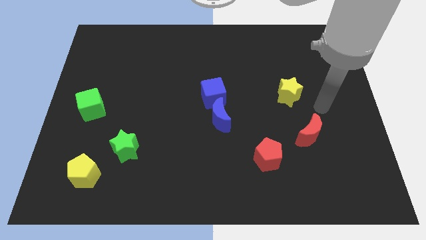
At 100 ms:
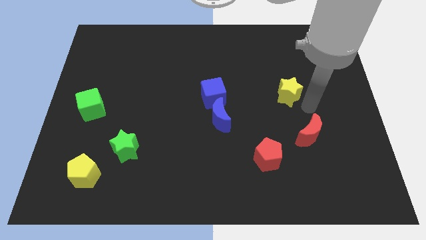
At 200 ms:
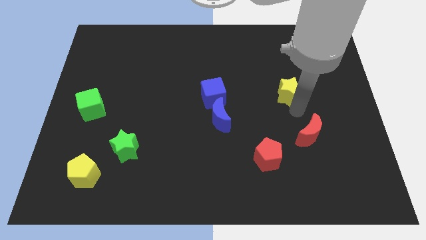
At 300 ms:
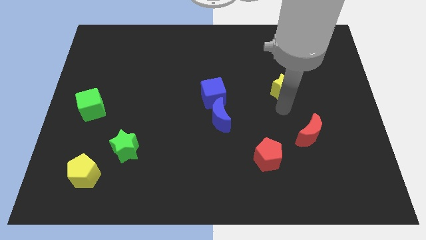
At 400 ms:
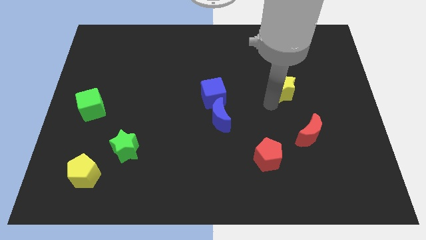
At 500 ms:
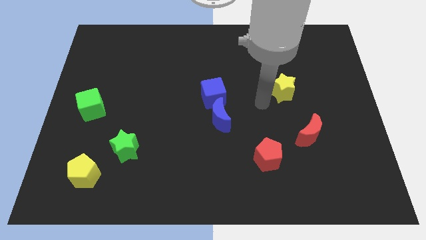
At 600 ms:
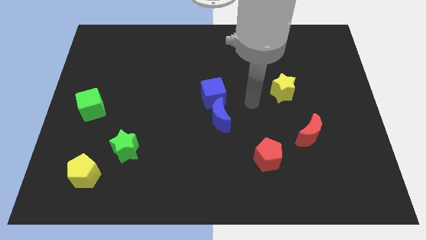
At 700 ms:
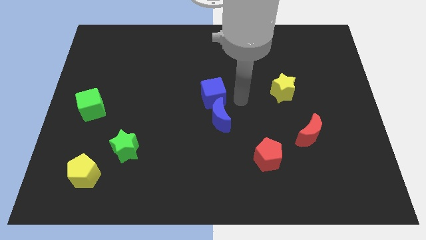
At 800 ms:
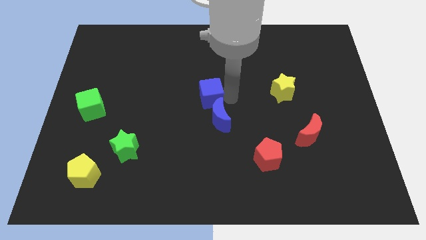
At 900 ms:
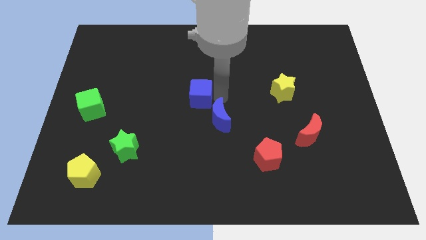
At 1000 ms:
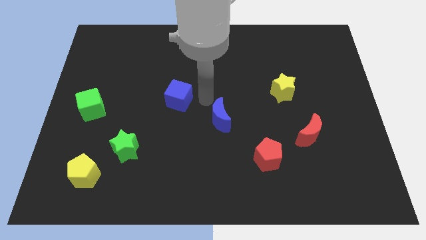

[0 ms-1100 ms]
pull the blue moon apart from the blue cube

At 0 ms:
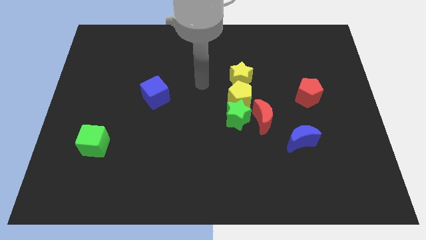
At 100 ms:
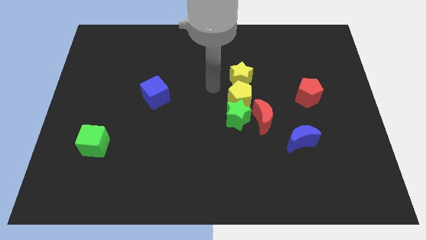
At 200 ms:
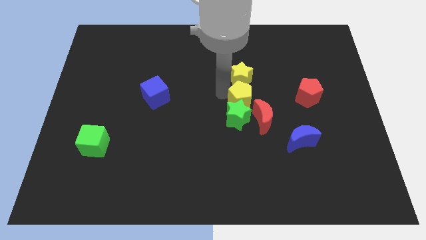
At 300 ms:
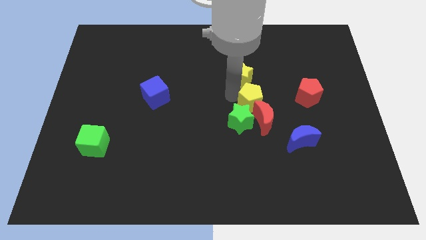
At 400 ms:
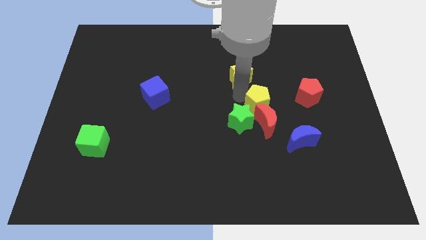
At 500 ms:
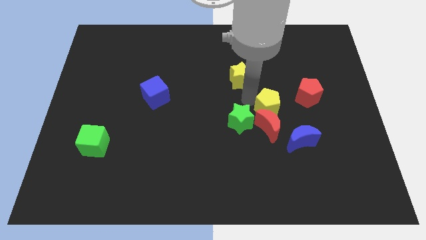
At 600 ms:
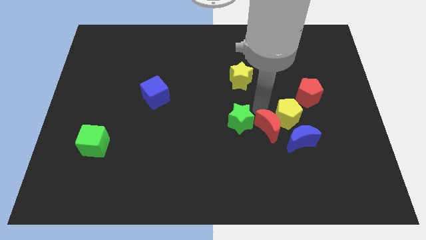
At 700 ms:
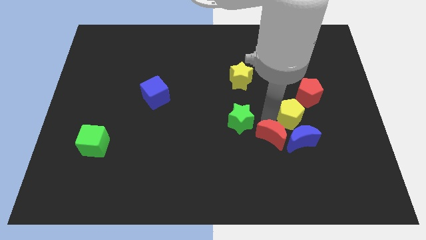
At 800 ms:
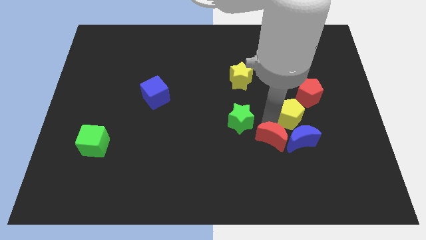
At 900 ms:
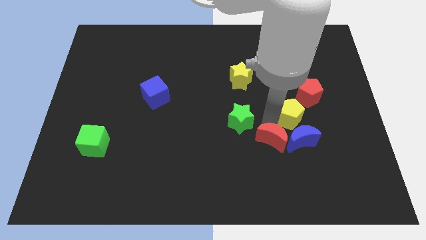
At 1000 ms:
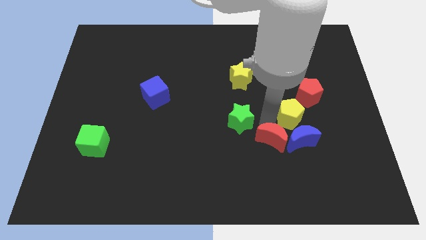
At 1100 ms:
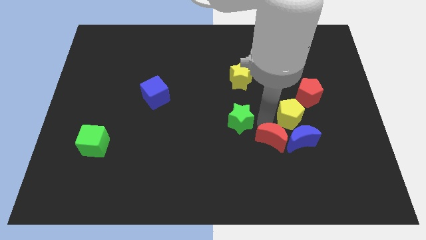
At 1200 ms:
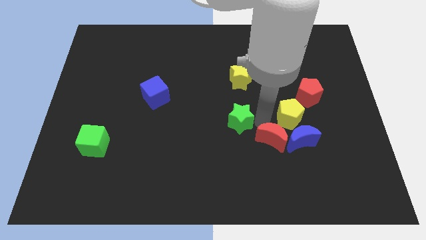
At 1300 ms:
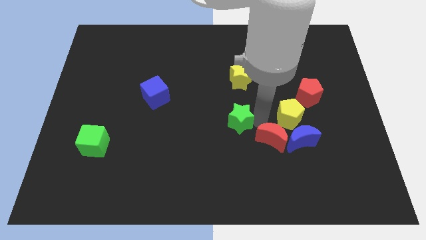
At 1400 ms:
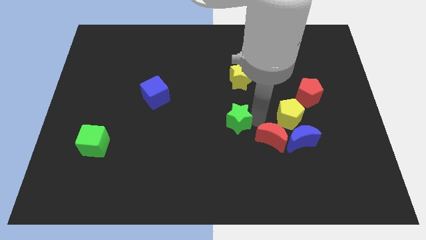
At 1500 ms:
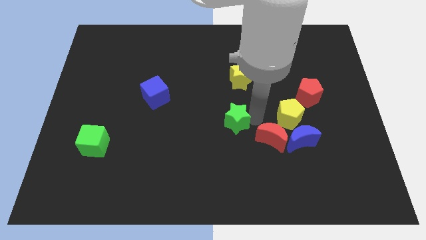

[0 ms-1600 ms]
move the green star away from the yellow pentagon and red moon

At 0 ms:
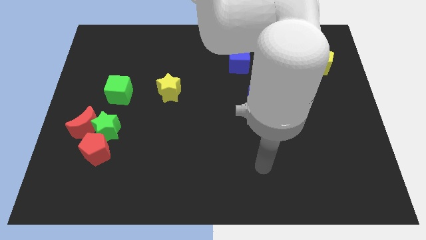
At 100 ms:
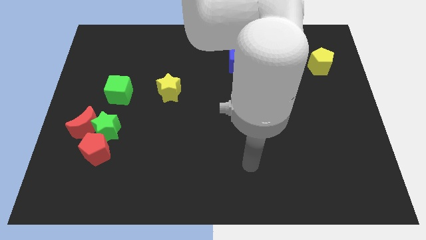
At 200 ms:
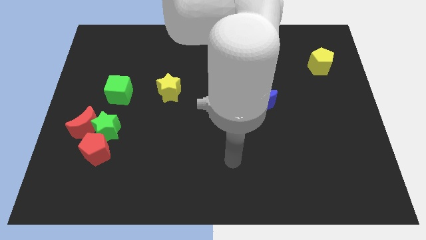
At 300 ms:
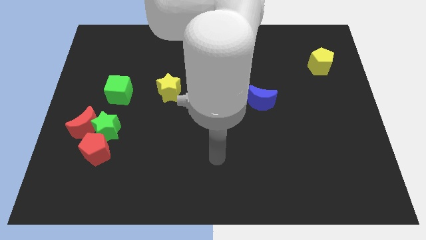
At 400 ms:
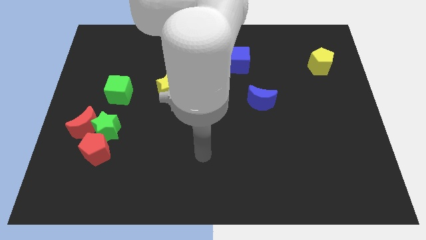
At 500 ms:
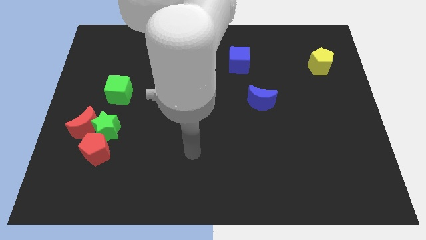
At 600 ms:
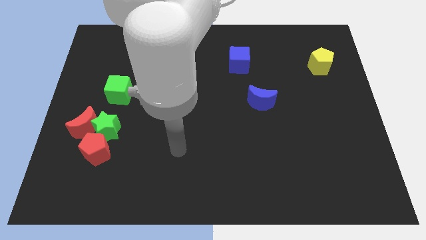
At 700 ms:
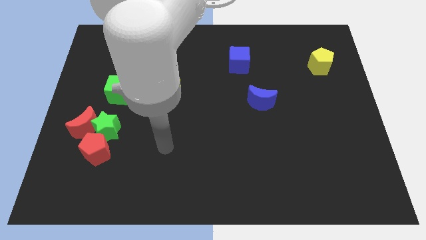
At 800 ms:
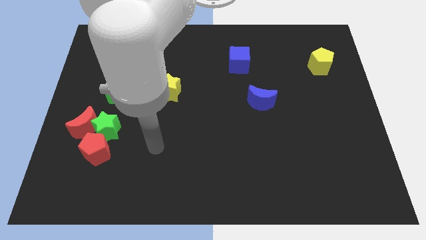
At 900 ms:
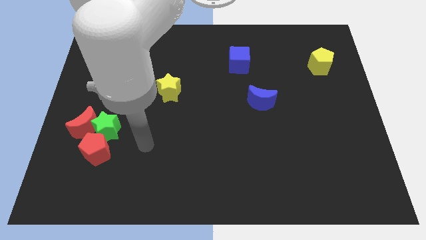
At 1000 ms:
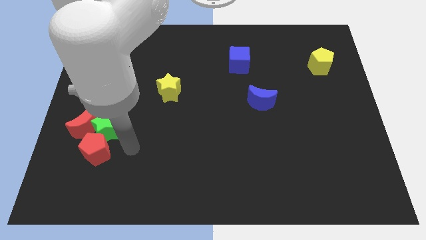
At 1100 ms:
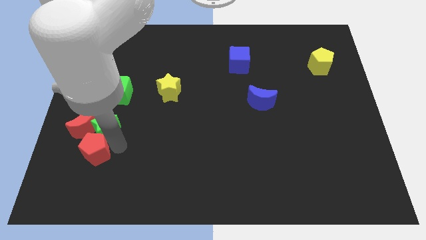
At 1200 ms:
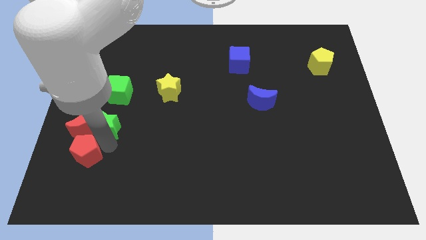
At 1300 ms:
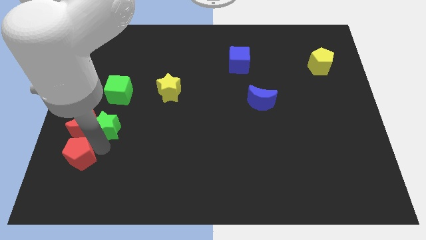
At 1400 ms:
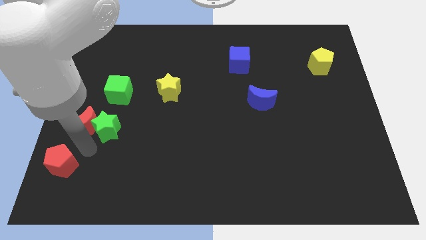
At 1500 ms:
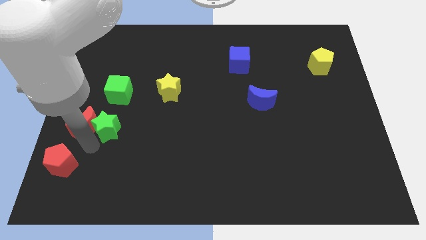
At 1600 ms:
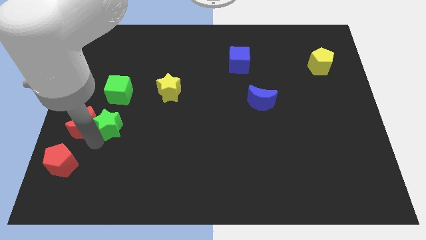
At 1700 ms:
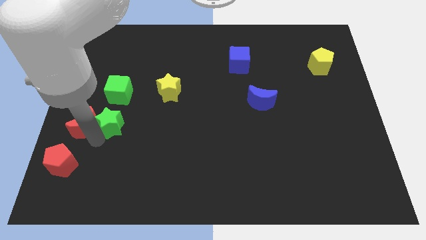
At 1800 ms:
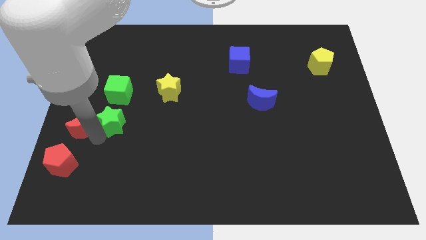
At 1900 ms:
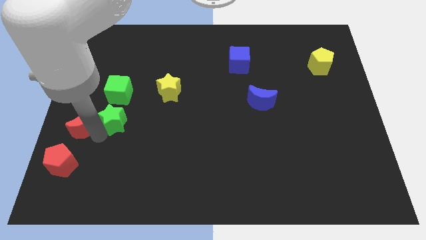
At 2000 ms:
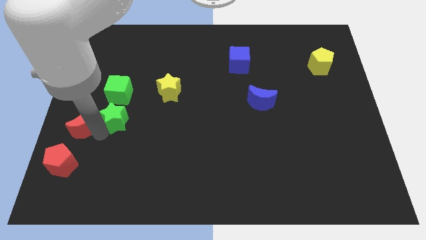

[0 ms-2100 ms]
pull the green star apart from the red moon and red pentagon

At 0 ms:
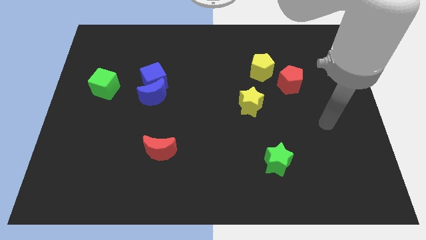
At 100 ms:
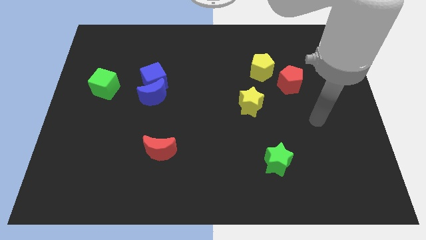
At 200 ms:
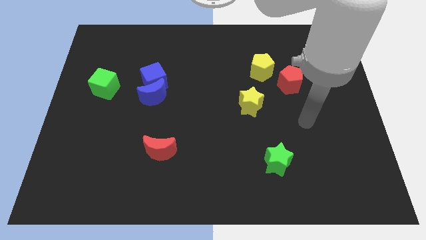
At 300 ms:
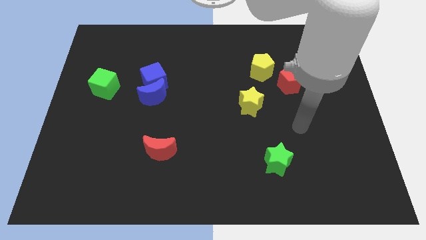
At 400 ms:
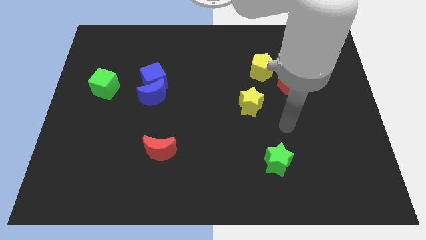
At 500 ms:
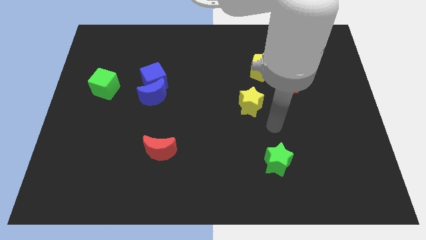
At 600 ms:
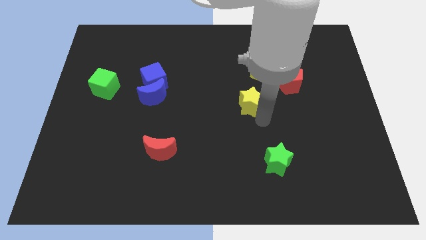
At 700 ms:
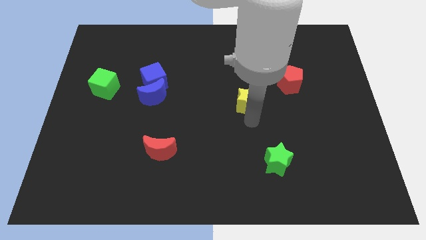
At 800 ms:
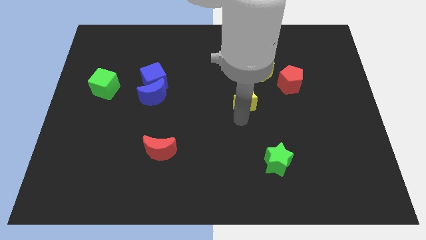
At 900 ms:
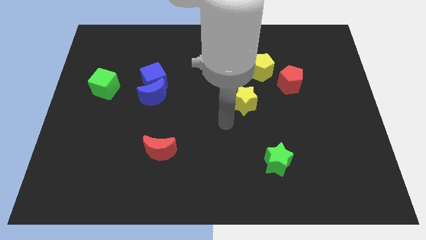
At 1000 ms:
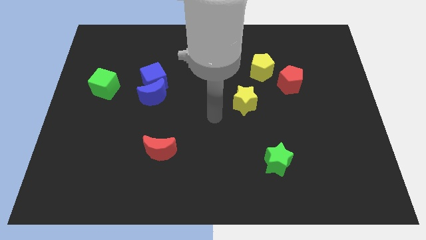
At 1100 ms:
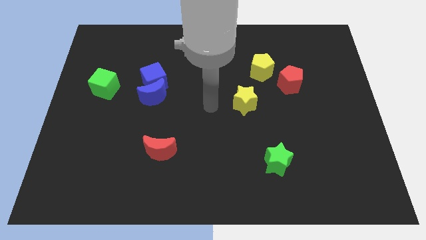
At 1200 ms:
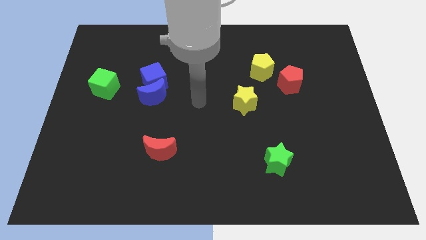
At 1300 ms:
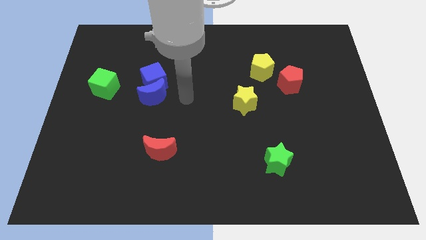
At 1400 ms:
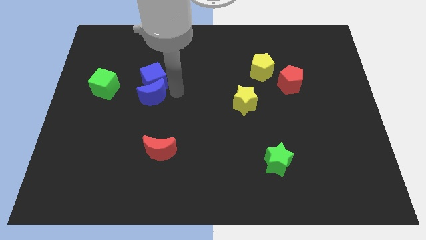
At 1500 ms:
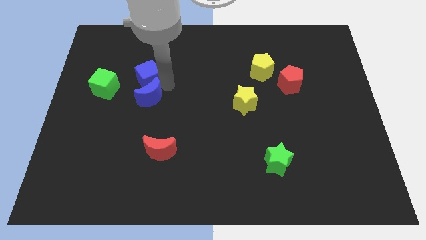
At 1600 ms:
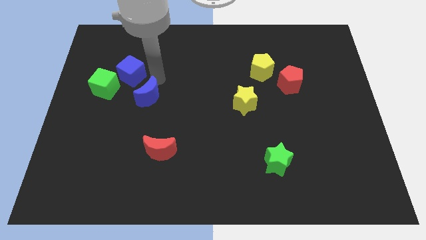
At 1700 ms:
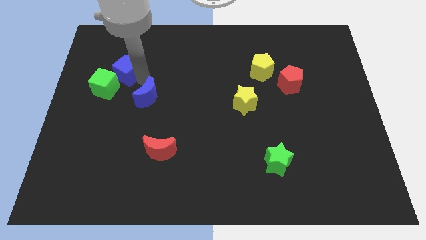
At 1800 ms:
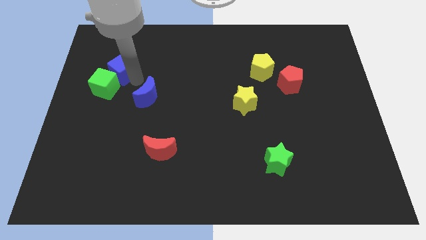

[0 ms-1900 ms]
separate the blue moon from the blue cube

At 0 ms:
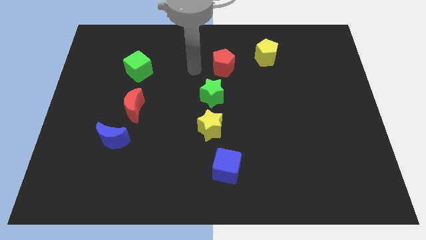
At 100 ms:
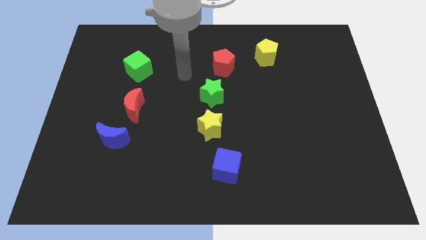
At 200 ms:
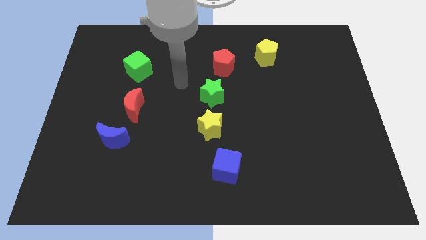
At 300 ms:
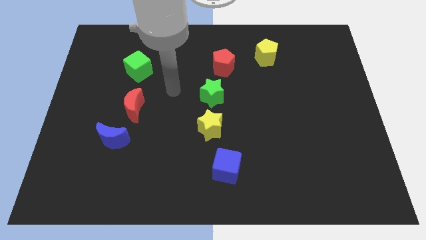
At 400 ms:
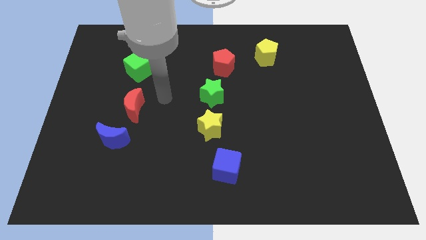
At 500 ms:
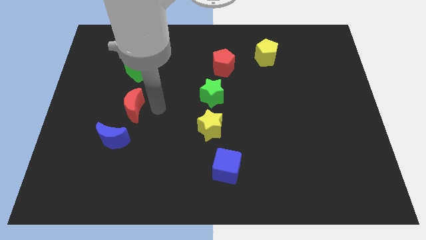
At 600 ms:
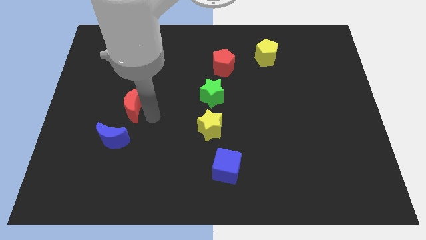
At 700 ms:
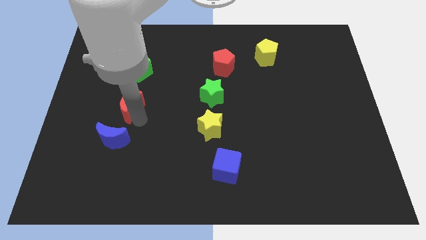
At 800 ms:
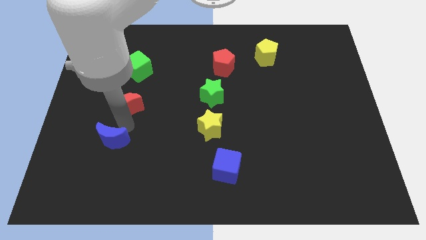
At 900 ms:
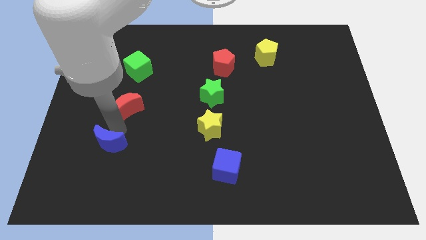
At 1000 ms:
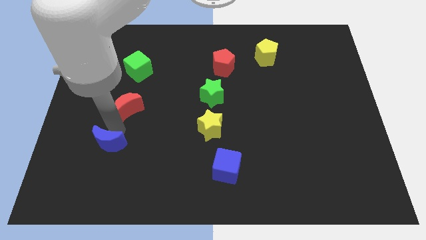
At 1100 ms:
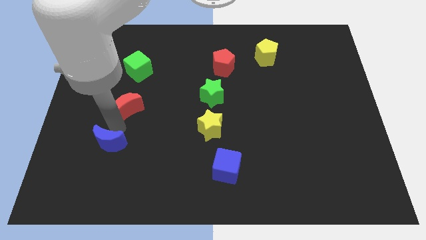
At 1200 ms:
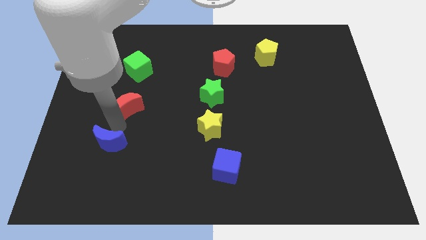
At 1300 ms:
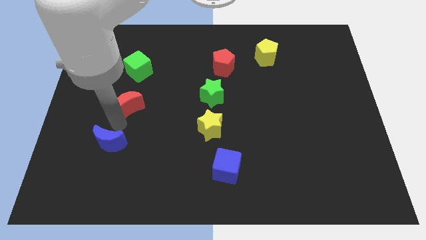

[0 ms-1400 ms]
pull the red moon apart from the blue moon

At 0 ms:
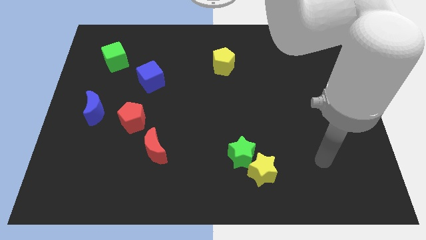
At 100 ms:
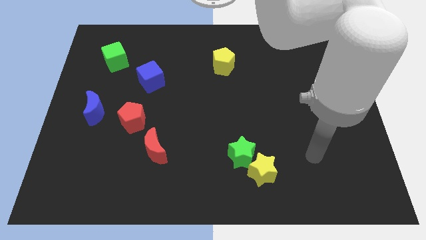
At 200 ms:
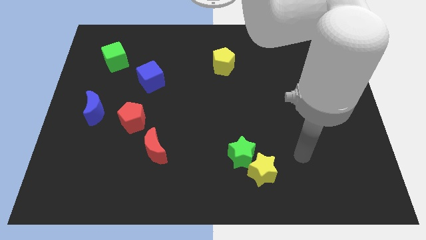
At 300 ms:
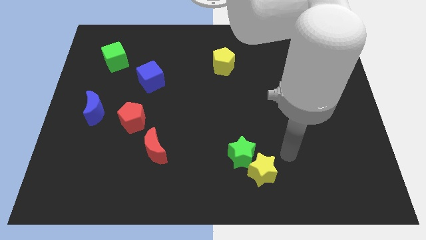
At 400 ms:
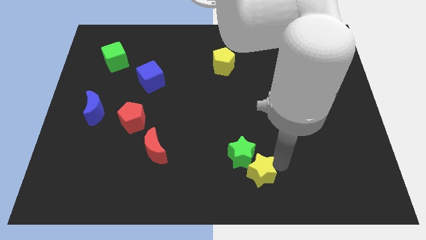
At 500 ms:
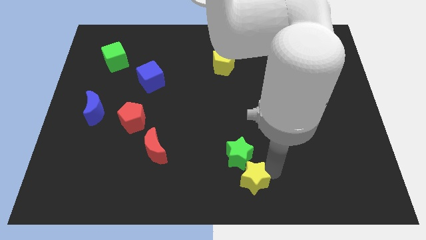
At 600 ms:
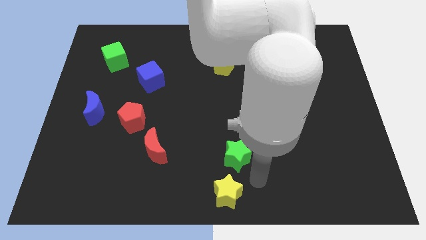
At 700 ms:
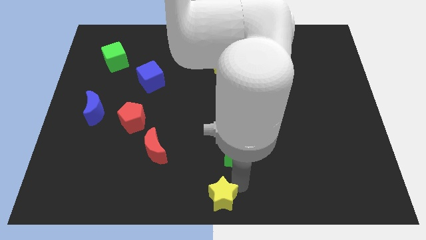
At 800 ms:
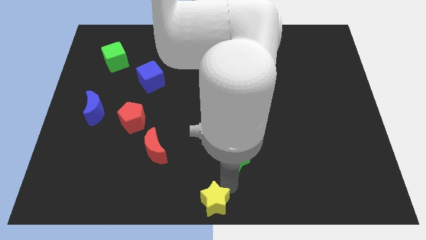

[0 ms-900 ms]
pull the green star apart from the yellow star

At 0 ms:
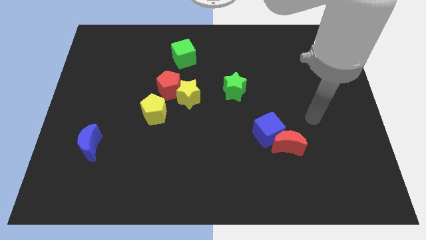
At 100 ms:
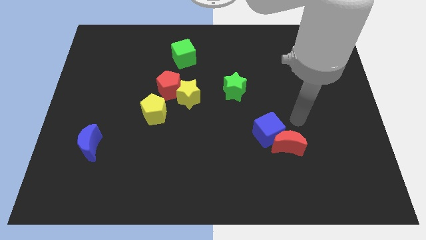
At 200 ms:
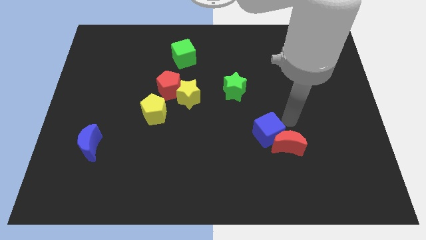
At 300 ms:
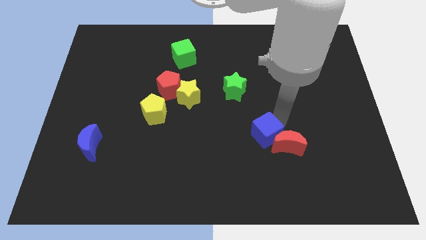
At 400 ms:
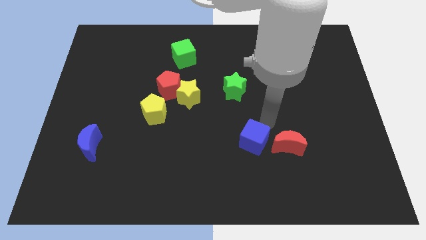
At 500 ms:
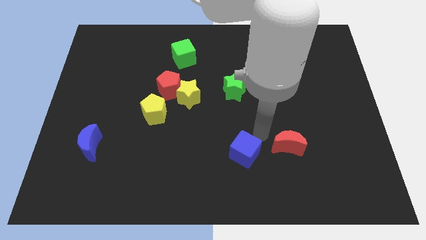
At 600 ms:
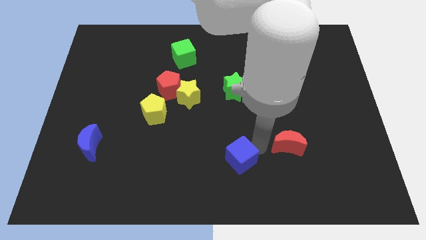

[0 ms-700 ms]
separate the red moon from the blue cube
